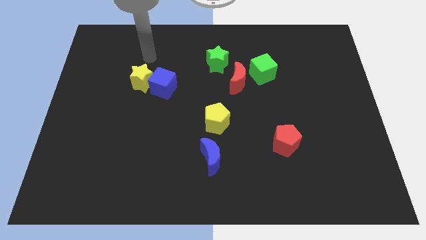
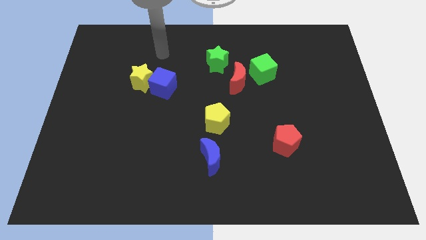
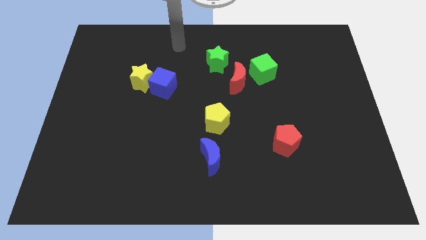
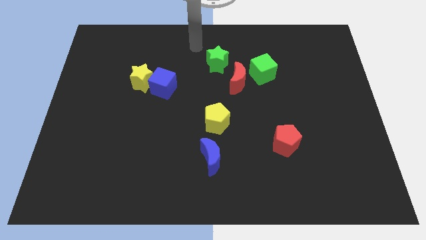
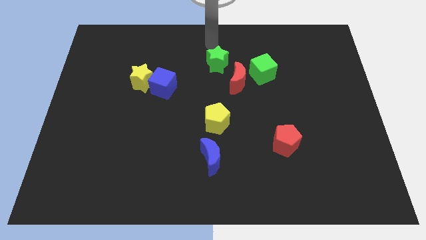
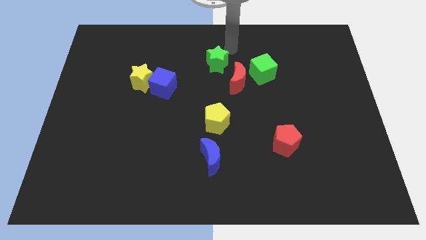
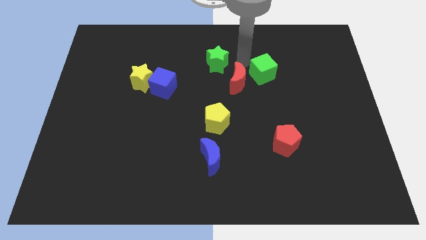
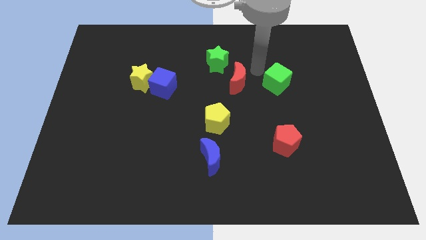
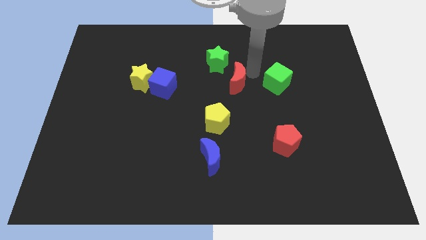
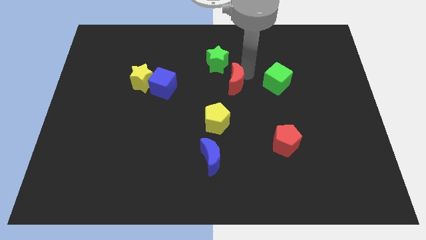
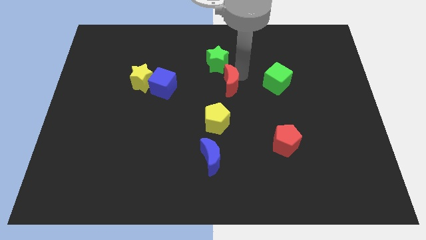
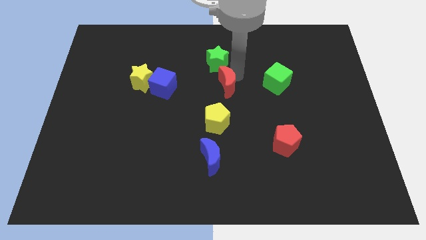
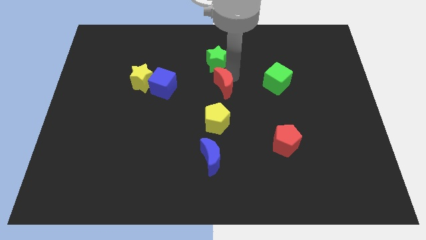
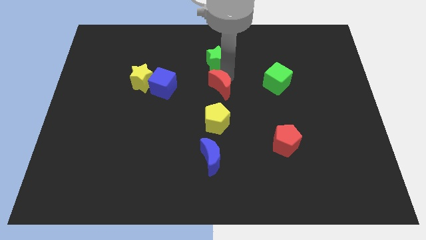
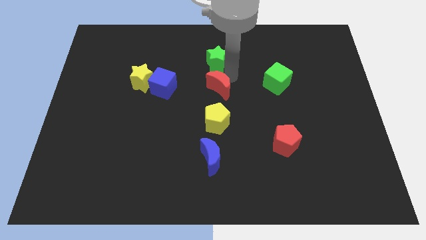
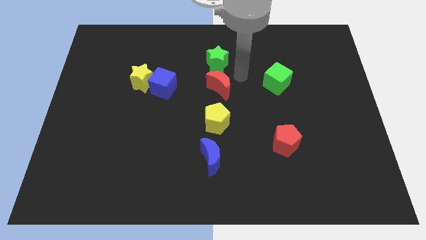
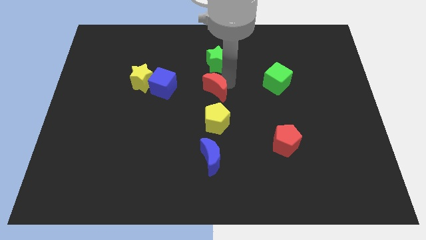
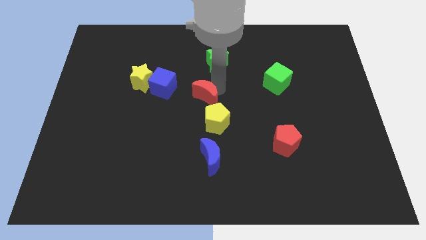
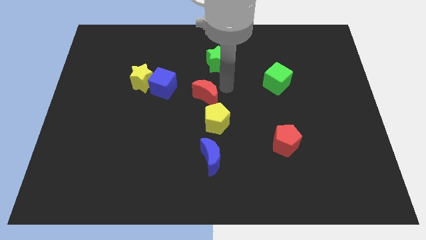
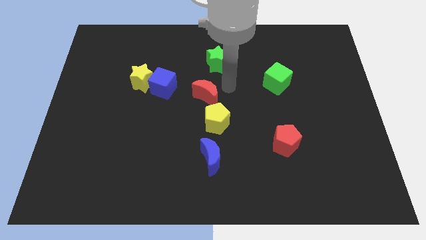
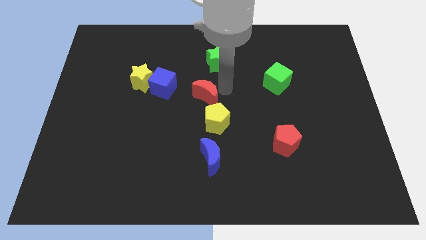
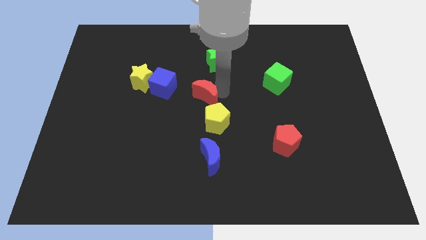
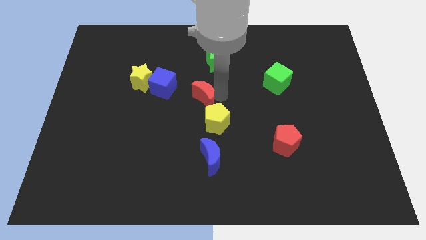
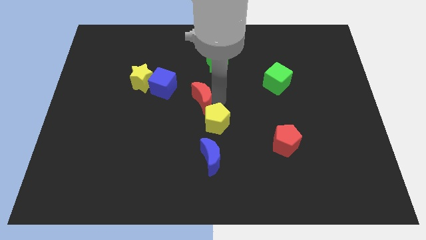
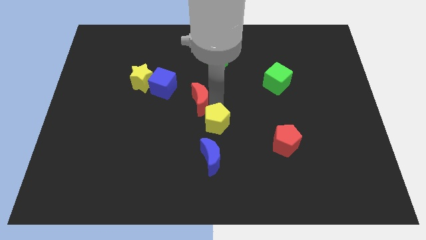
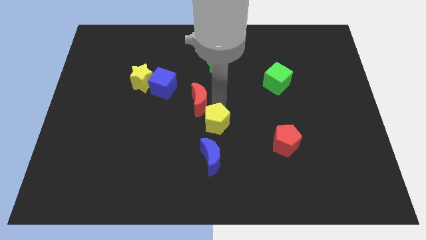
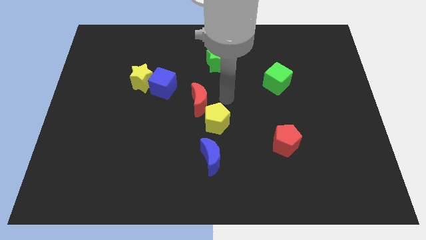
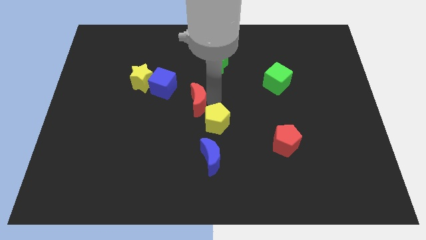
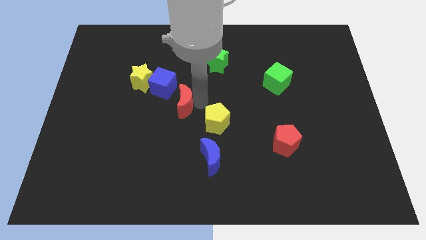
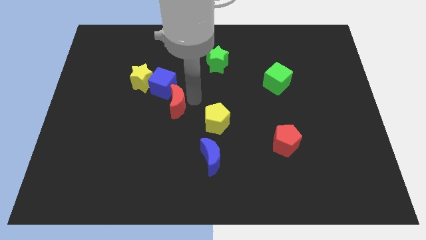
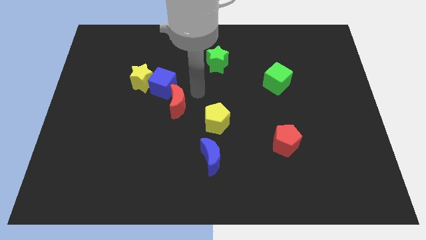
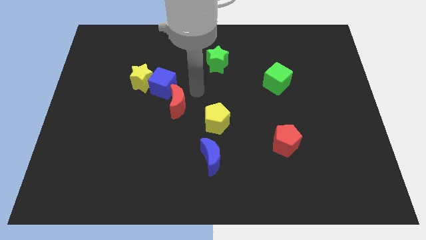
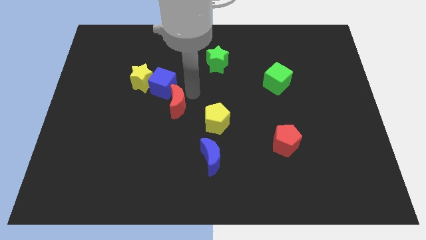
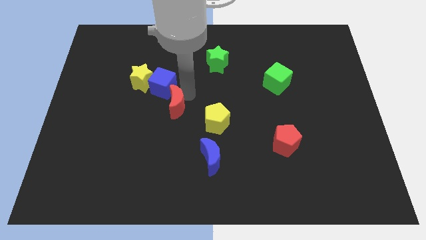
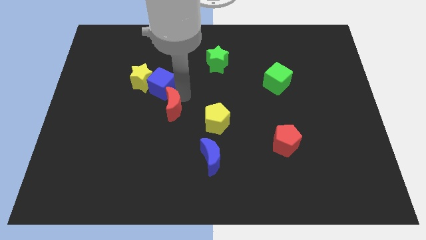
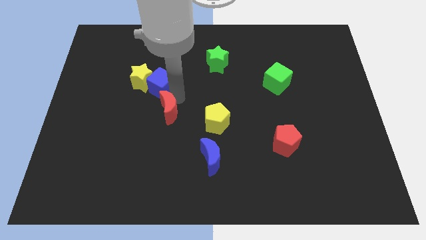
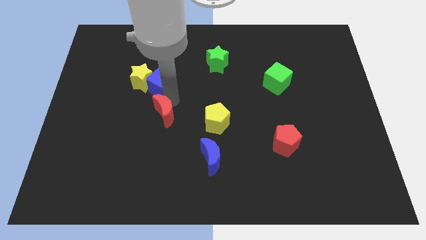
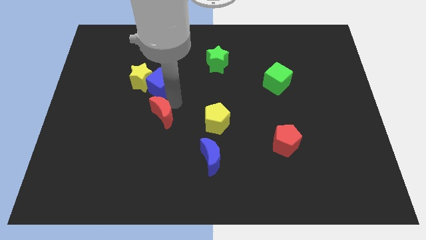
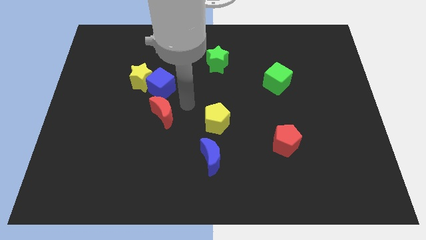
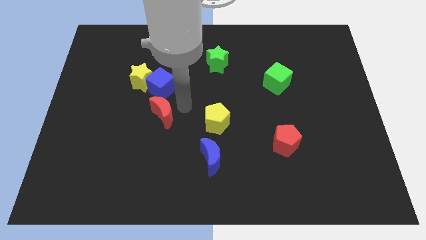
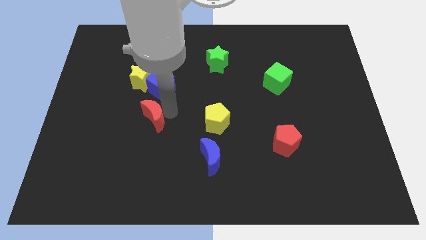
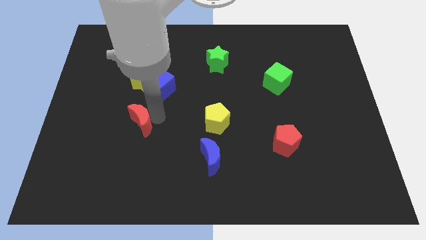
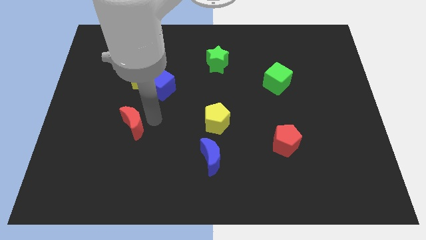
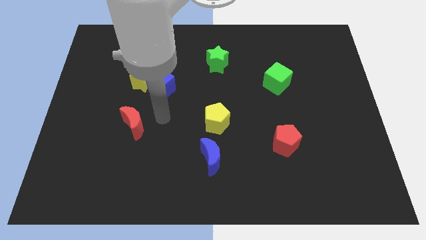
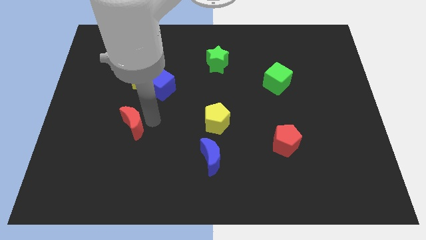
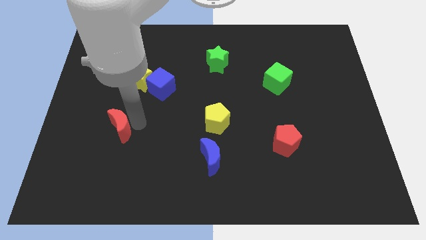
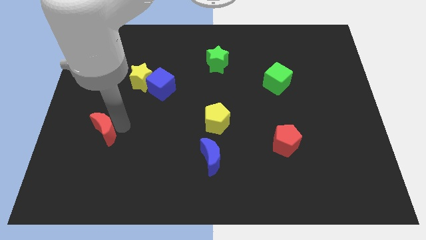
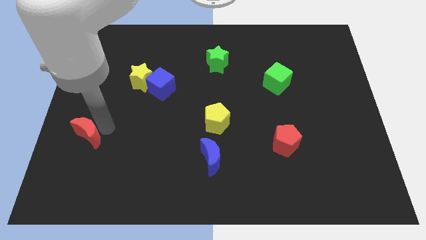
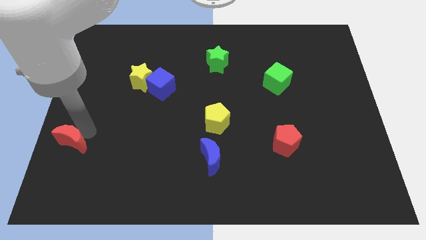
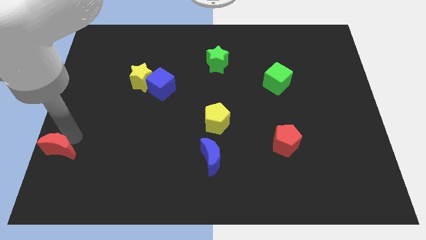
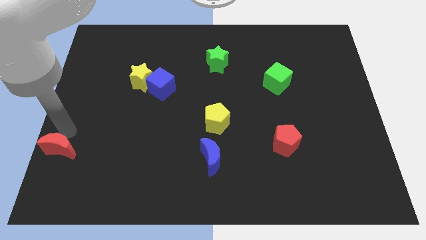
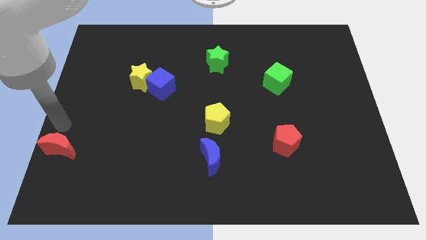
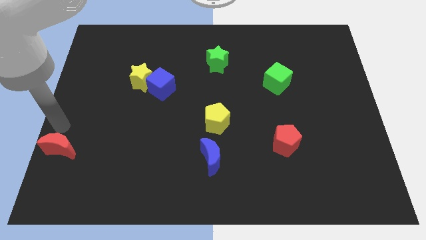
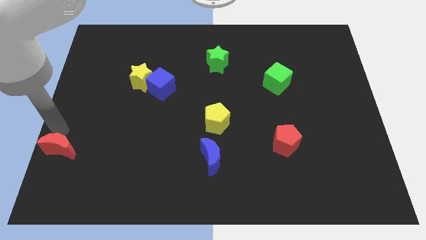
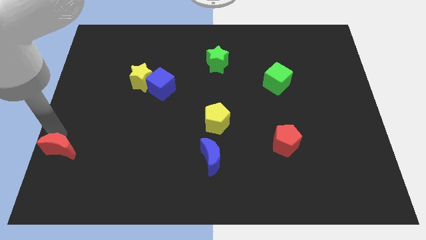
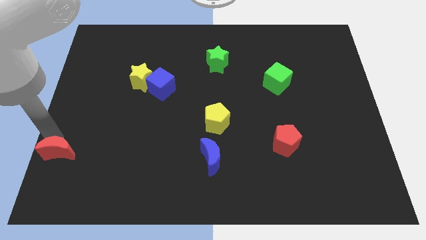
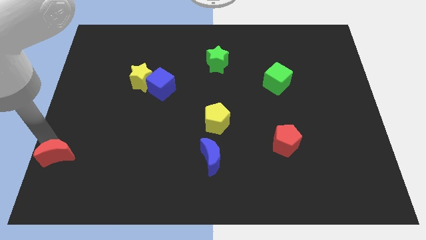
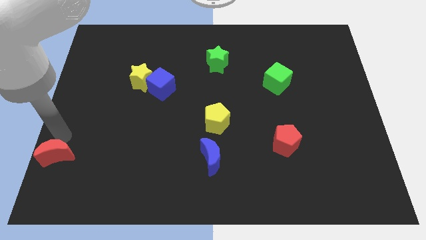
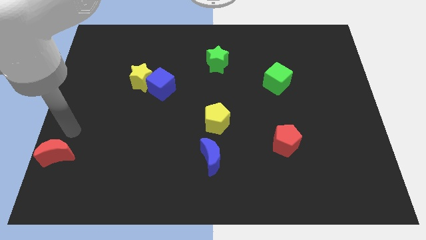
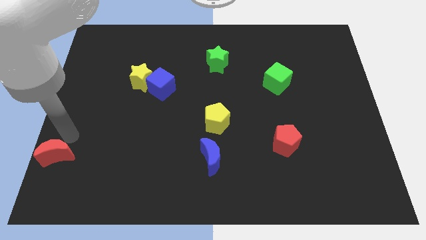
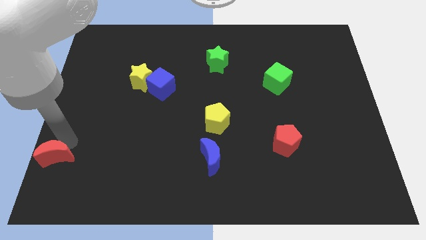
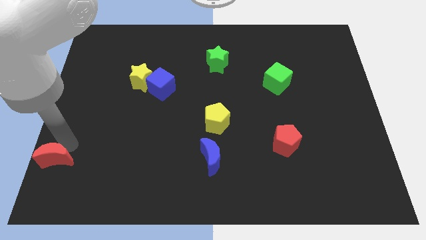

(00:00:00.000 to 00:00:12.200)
push the red moon to the bottom left of the board
